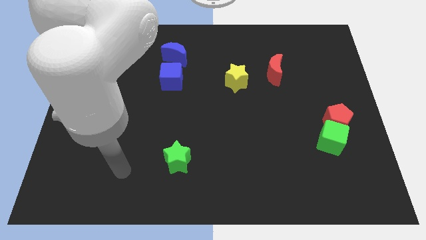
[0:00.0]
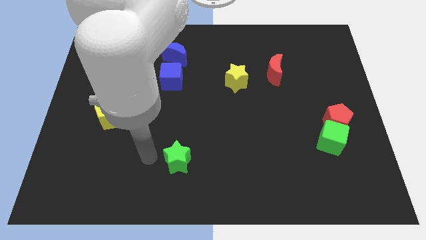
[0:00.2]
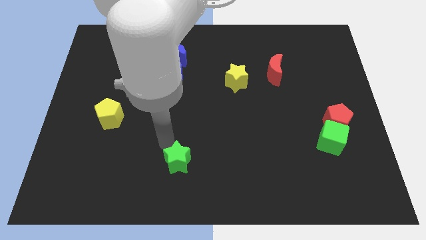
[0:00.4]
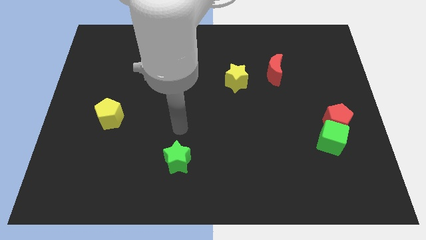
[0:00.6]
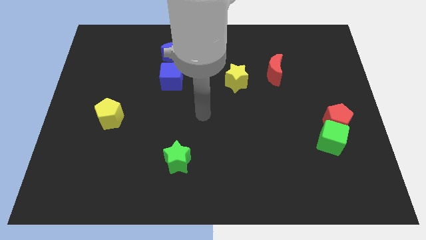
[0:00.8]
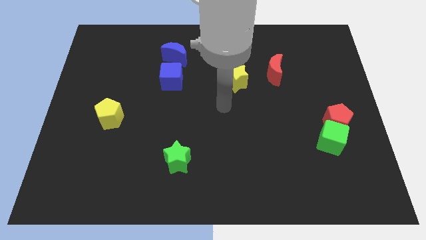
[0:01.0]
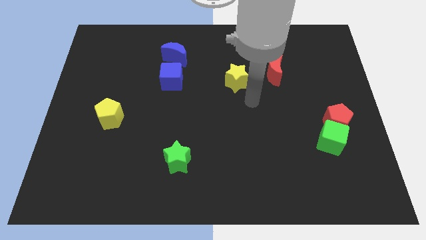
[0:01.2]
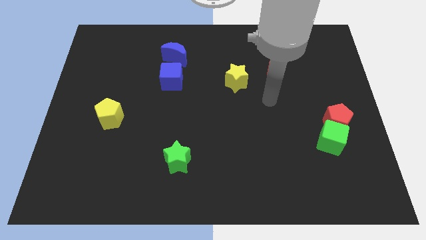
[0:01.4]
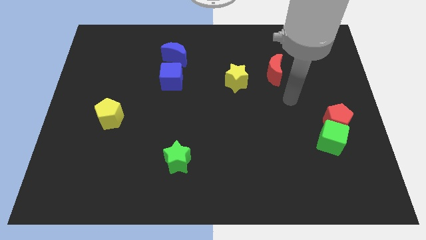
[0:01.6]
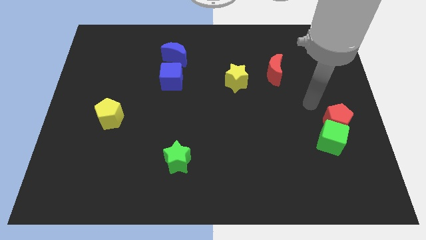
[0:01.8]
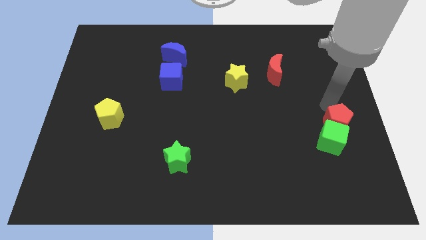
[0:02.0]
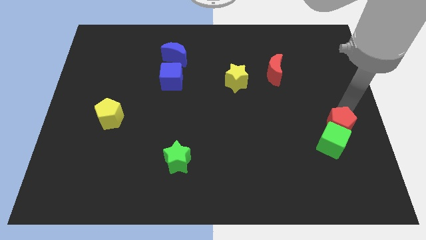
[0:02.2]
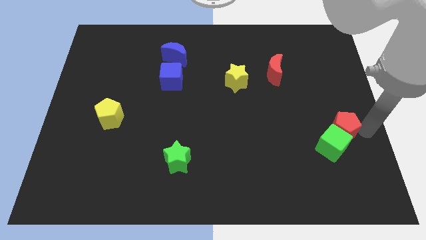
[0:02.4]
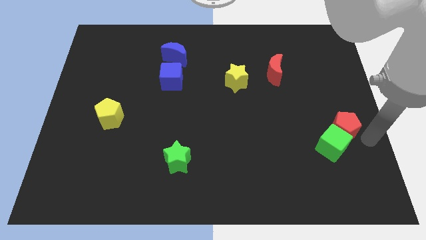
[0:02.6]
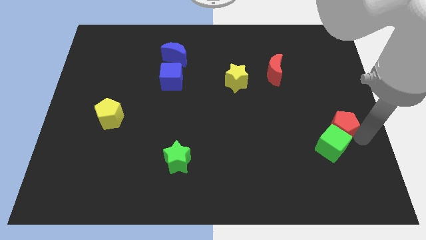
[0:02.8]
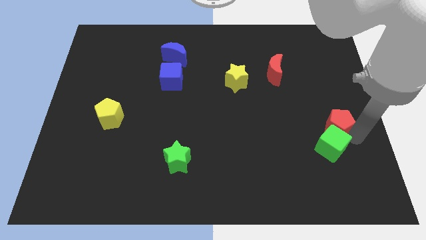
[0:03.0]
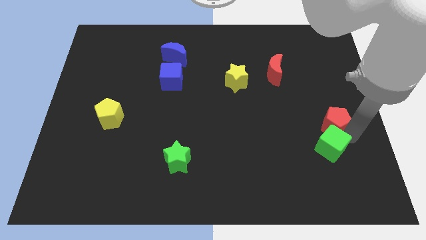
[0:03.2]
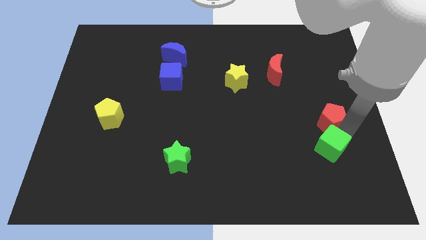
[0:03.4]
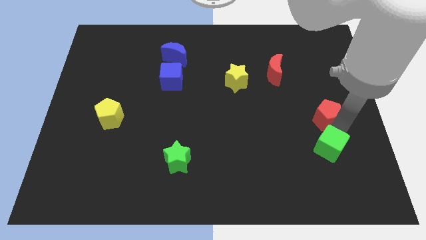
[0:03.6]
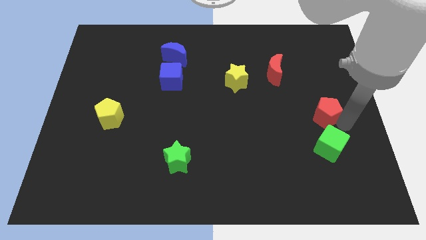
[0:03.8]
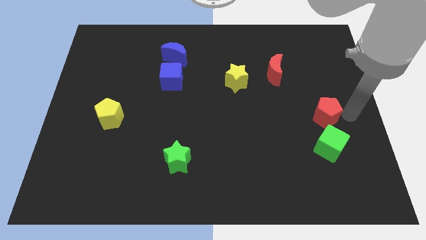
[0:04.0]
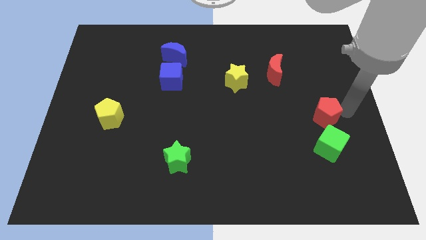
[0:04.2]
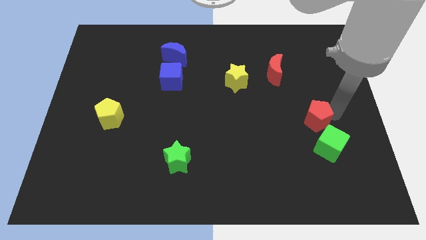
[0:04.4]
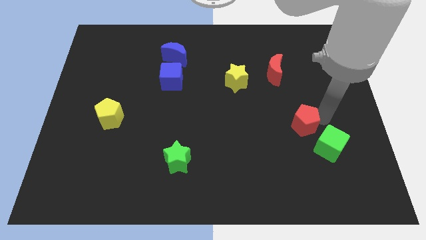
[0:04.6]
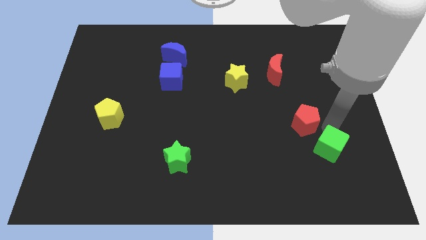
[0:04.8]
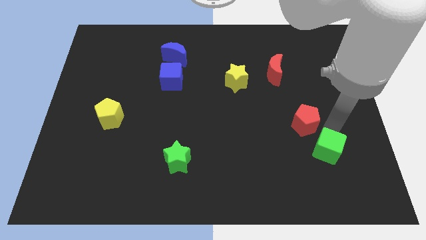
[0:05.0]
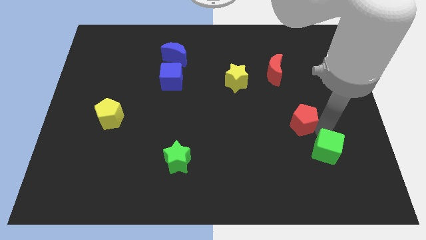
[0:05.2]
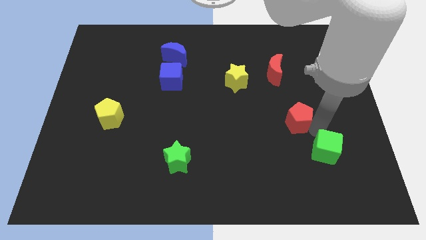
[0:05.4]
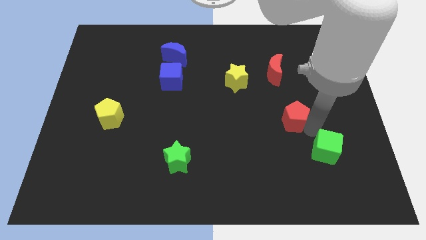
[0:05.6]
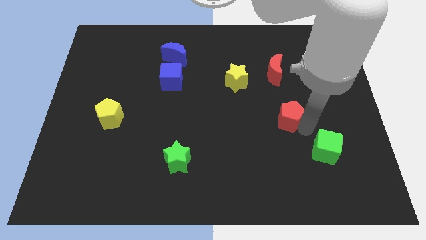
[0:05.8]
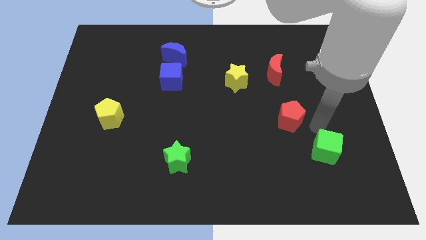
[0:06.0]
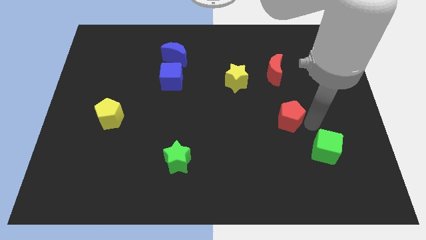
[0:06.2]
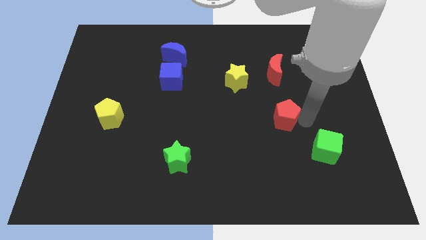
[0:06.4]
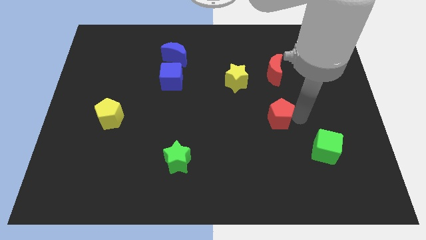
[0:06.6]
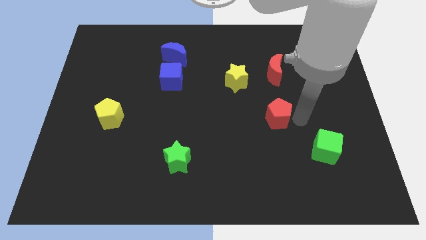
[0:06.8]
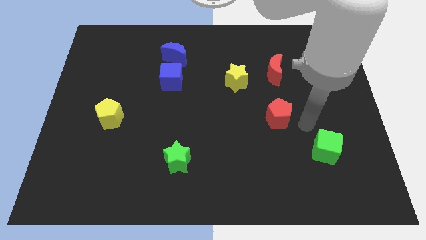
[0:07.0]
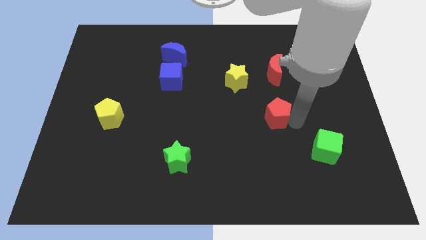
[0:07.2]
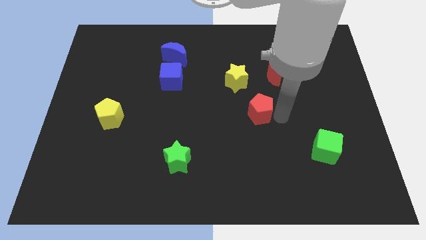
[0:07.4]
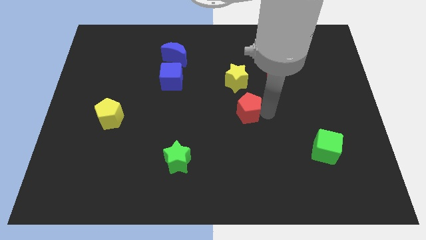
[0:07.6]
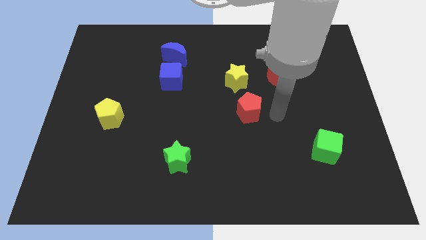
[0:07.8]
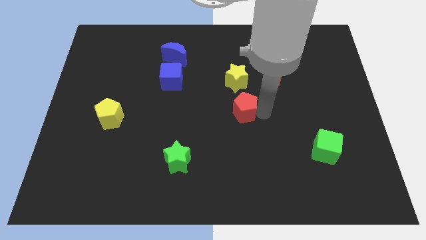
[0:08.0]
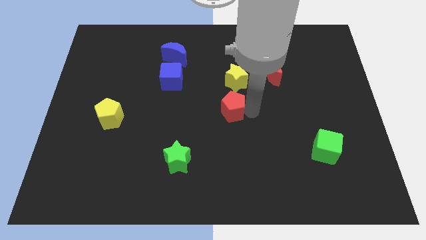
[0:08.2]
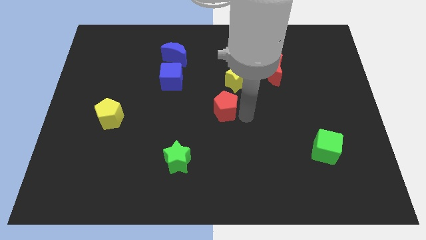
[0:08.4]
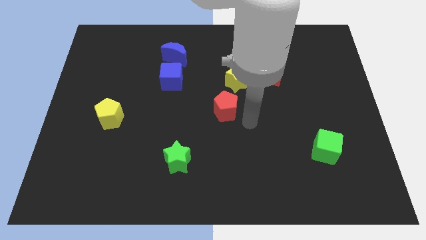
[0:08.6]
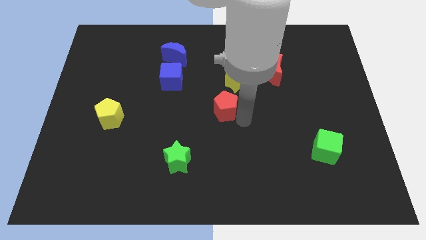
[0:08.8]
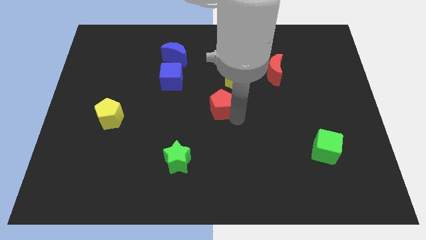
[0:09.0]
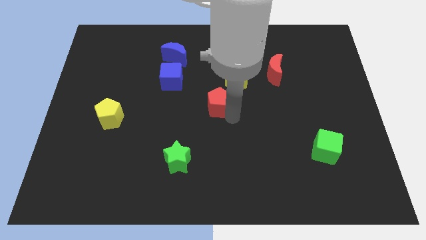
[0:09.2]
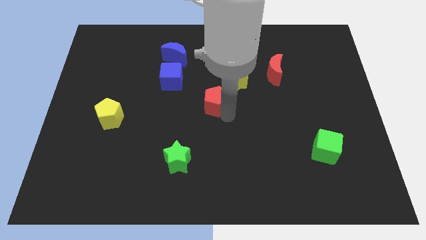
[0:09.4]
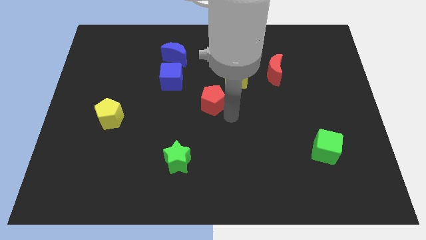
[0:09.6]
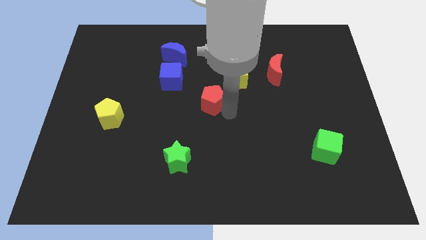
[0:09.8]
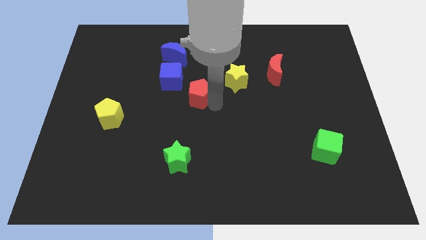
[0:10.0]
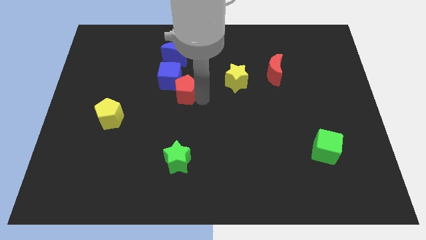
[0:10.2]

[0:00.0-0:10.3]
move the red pentagon close to the blue cube

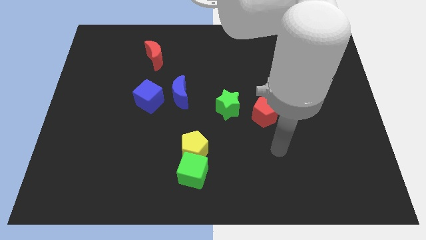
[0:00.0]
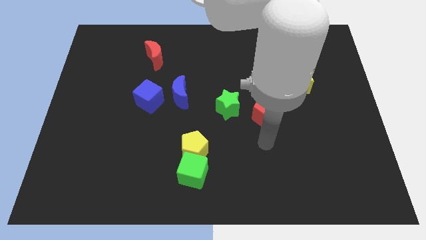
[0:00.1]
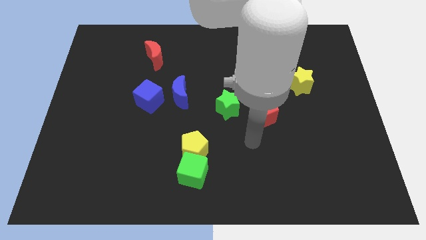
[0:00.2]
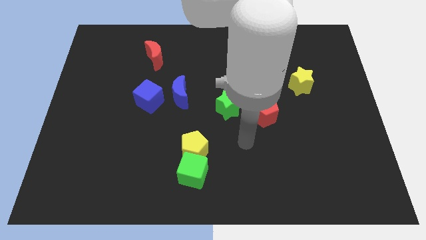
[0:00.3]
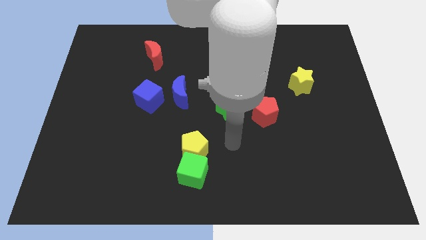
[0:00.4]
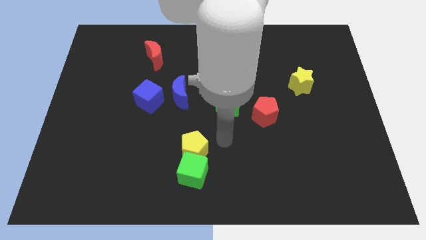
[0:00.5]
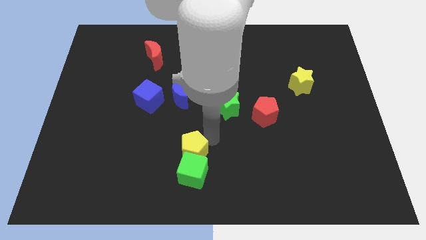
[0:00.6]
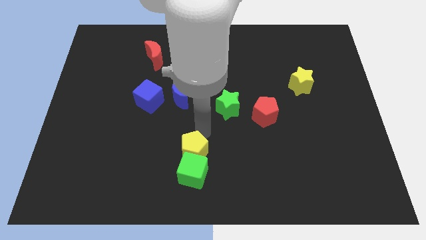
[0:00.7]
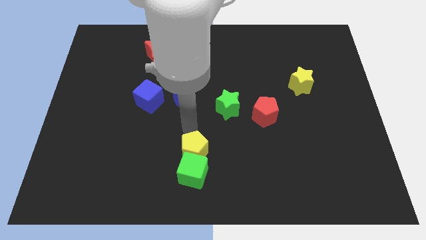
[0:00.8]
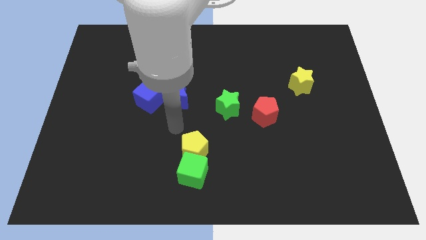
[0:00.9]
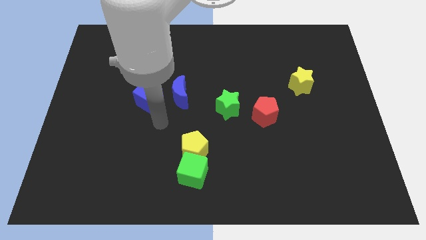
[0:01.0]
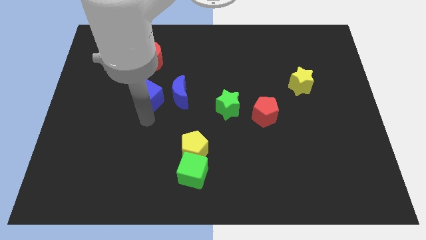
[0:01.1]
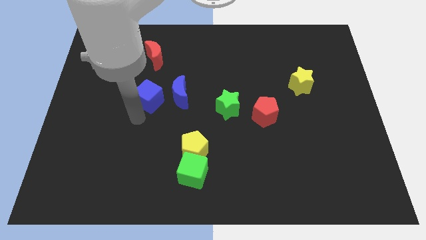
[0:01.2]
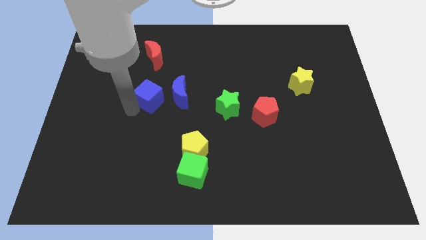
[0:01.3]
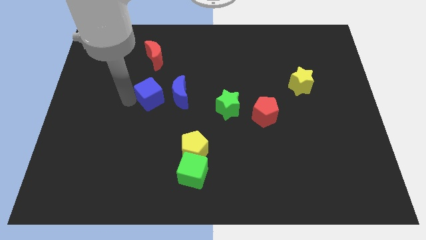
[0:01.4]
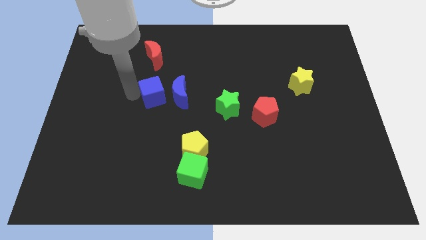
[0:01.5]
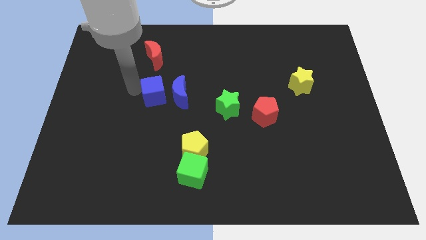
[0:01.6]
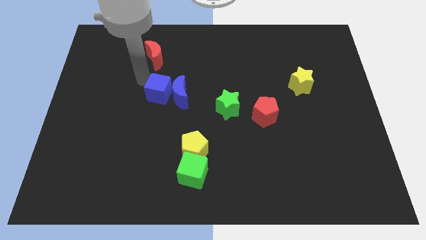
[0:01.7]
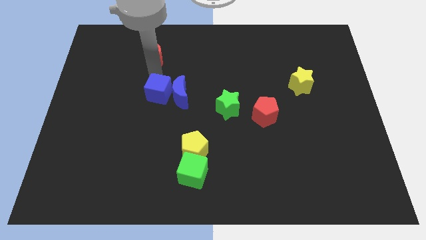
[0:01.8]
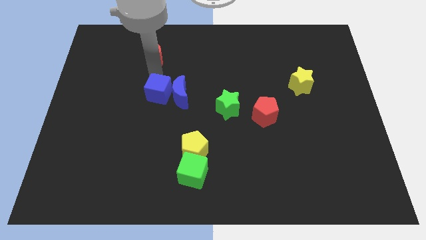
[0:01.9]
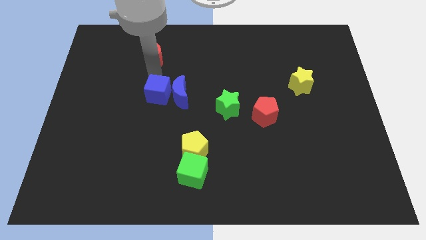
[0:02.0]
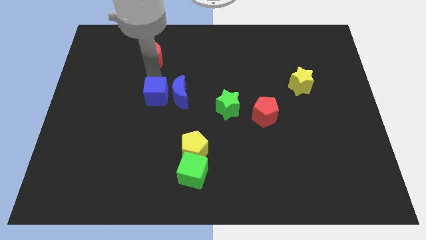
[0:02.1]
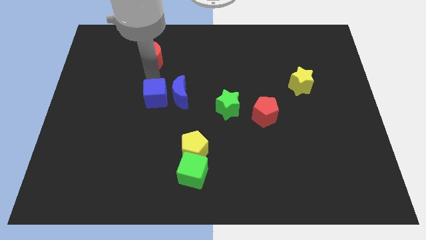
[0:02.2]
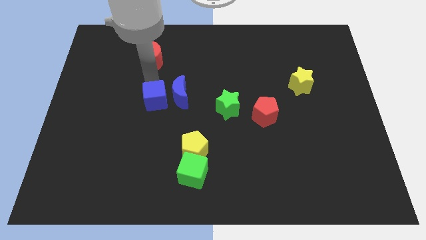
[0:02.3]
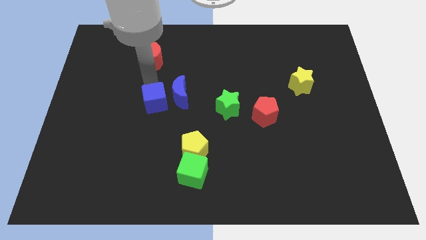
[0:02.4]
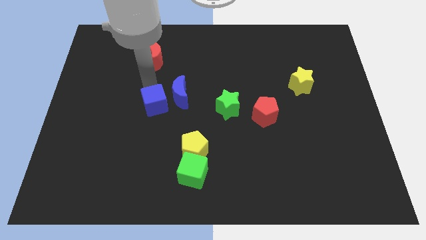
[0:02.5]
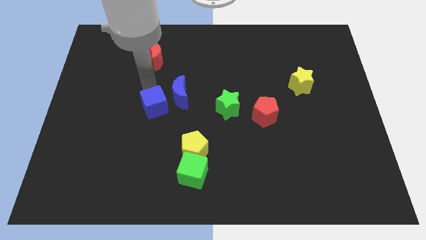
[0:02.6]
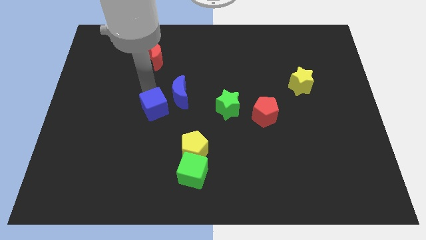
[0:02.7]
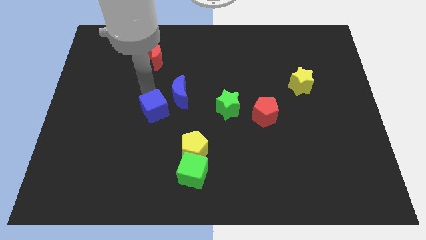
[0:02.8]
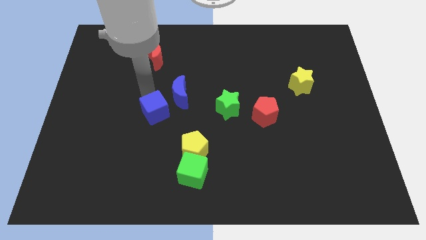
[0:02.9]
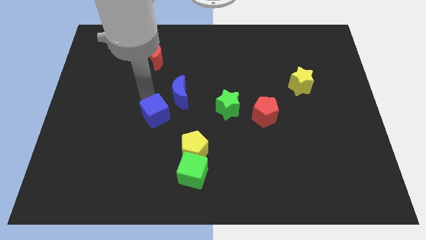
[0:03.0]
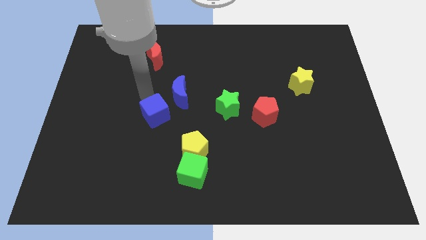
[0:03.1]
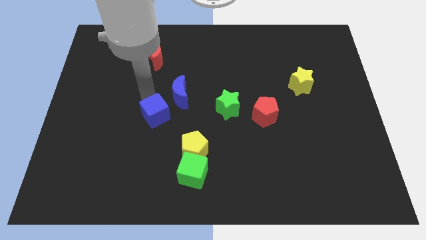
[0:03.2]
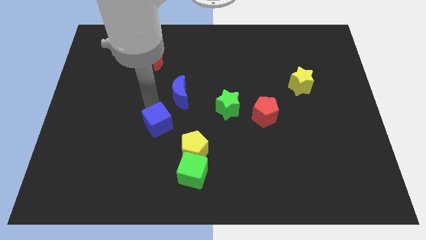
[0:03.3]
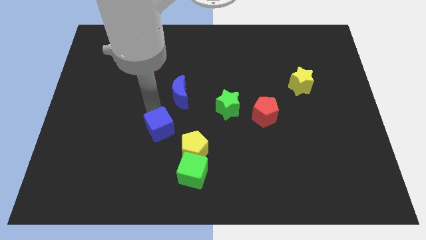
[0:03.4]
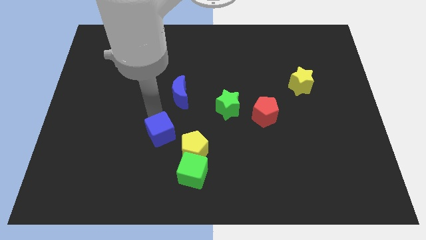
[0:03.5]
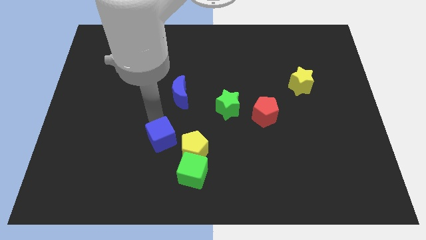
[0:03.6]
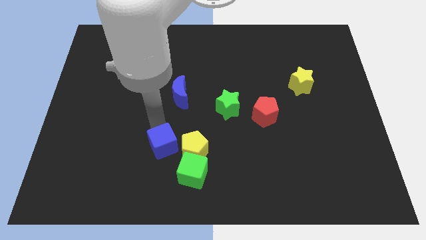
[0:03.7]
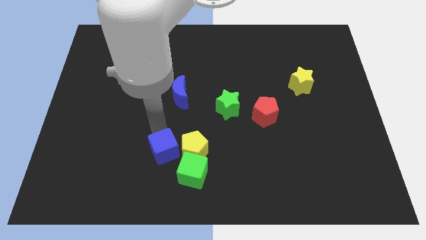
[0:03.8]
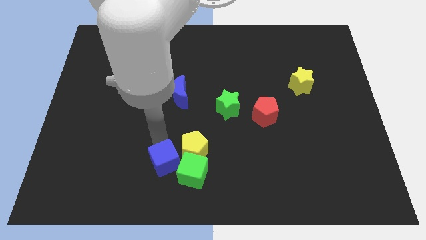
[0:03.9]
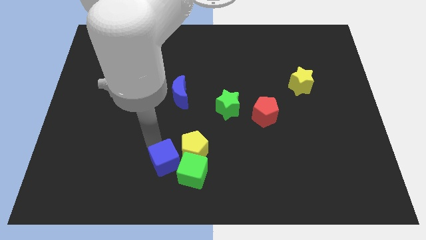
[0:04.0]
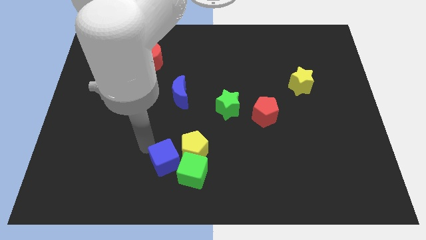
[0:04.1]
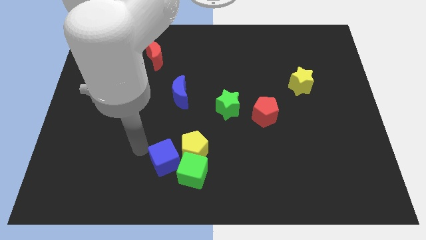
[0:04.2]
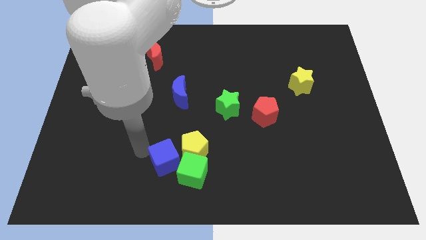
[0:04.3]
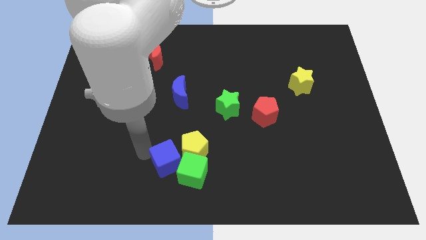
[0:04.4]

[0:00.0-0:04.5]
move the blue cube next to the green cube
